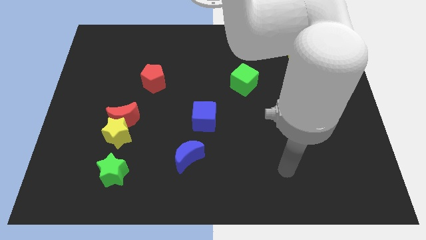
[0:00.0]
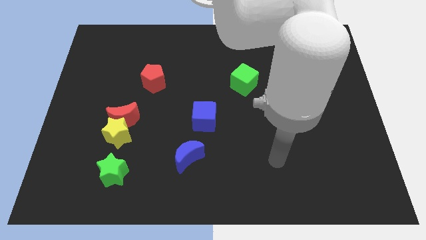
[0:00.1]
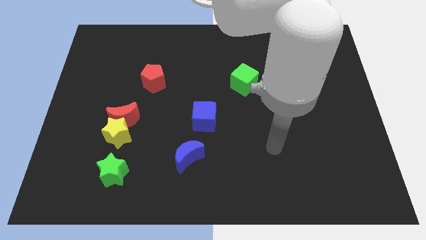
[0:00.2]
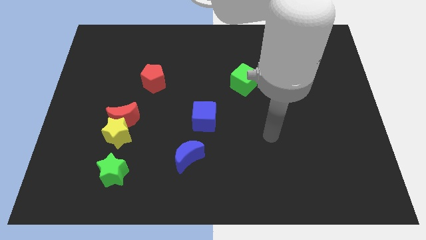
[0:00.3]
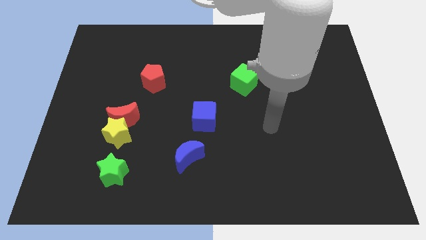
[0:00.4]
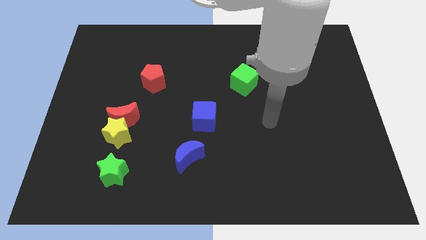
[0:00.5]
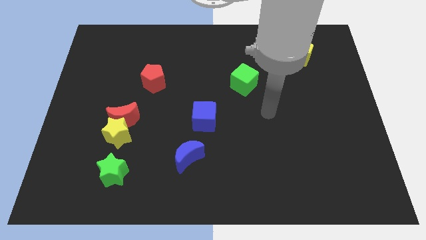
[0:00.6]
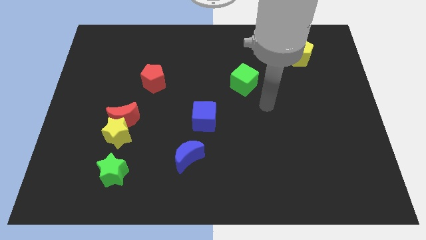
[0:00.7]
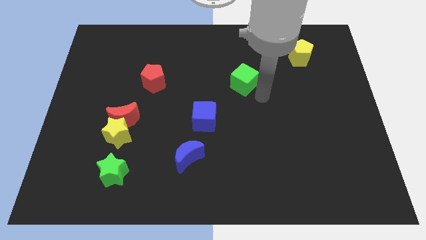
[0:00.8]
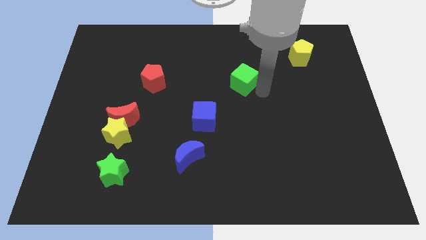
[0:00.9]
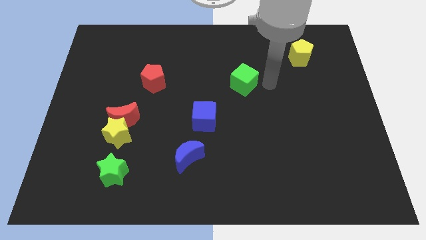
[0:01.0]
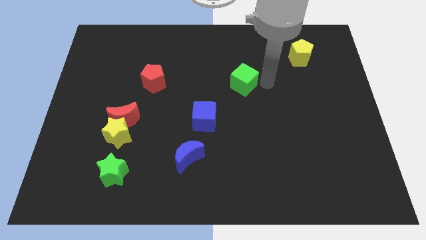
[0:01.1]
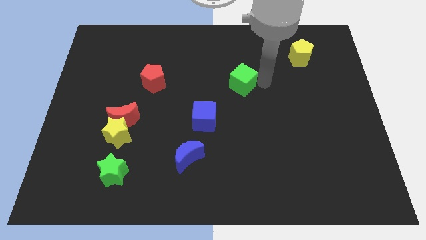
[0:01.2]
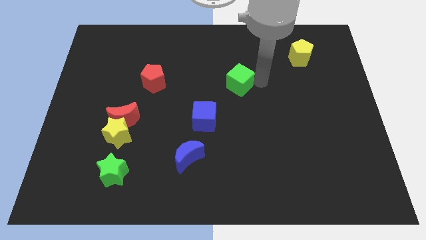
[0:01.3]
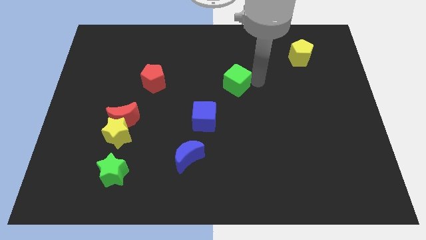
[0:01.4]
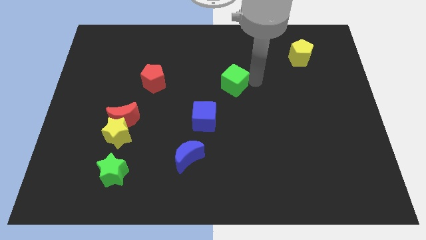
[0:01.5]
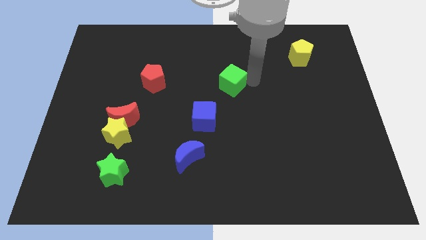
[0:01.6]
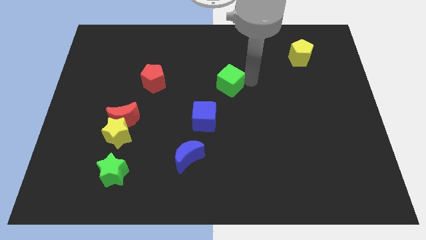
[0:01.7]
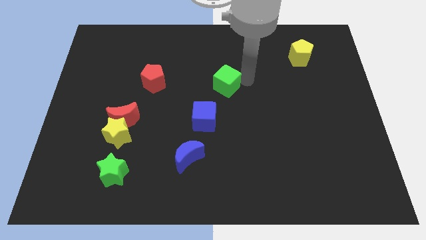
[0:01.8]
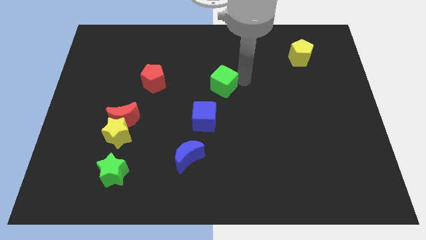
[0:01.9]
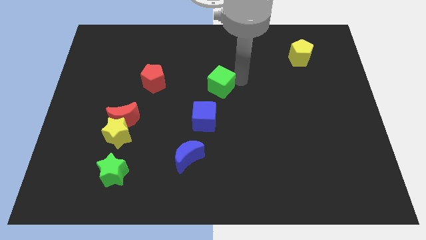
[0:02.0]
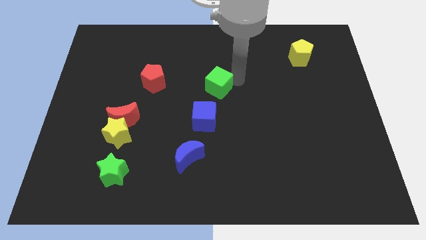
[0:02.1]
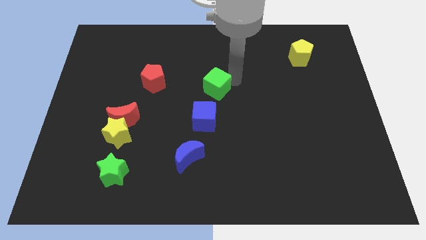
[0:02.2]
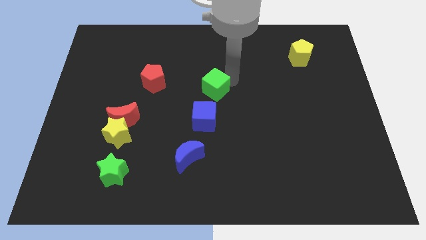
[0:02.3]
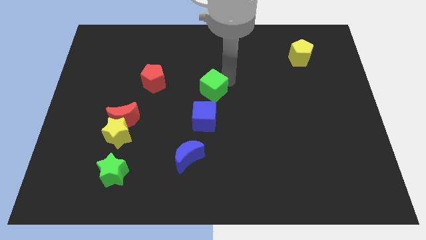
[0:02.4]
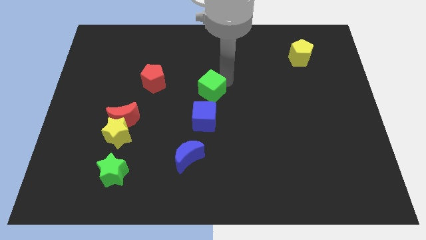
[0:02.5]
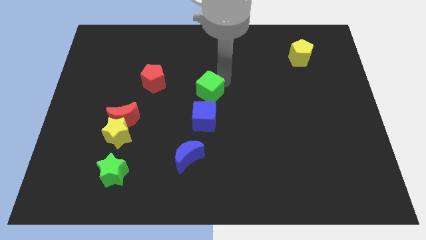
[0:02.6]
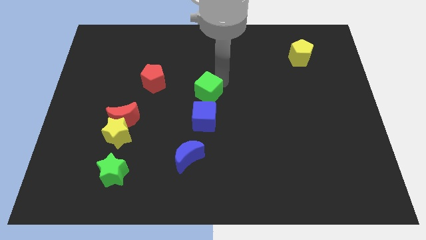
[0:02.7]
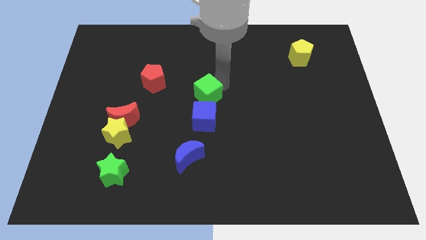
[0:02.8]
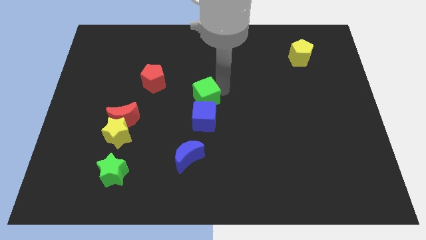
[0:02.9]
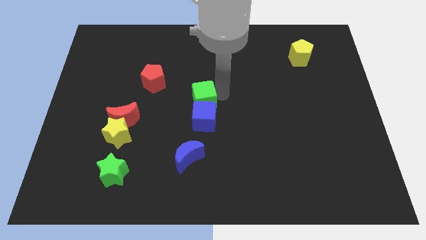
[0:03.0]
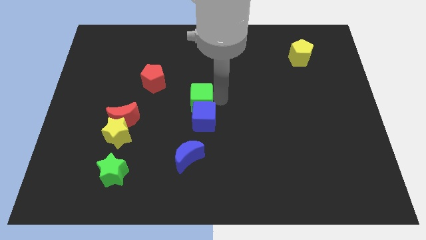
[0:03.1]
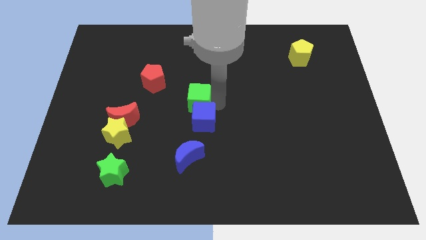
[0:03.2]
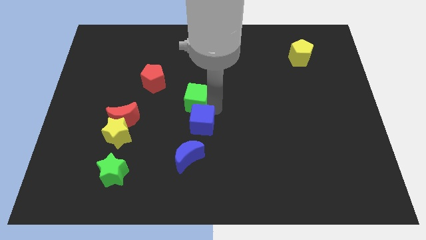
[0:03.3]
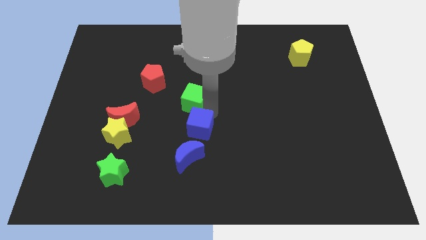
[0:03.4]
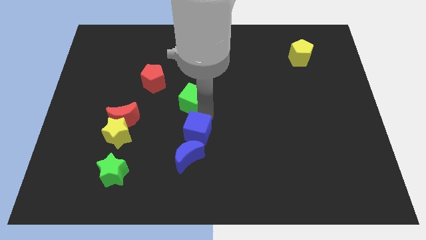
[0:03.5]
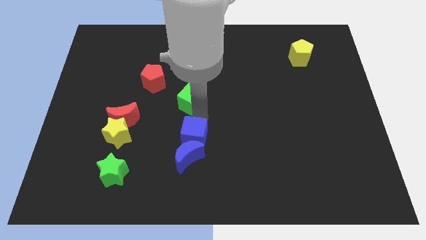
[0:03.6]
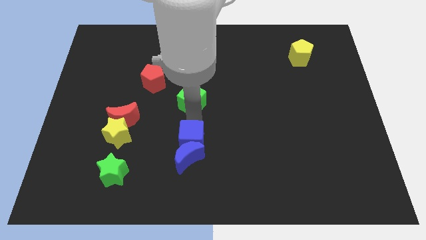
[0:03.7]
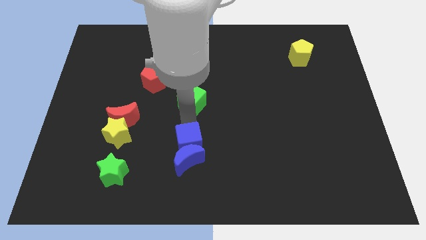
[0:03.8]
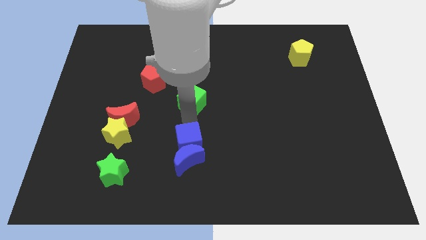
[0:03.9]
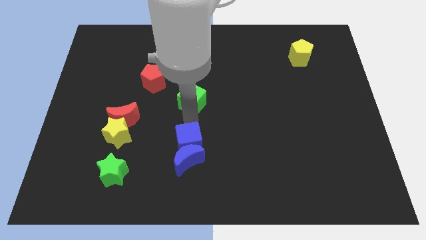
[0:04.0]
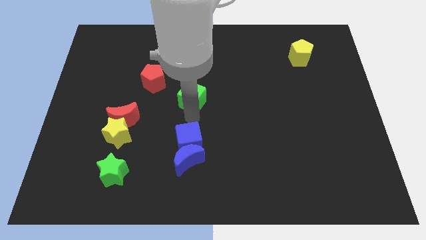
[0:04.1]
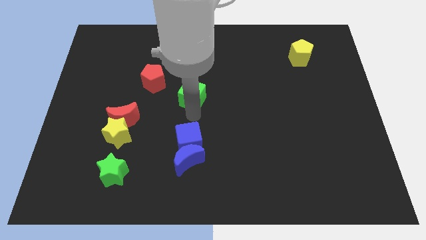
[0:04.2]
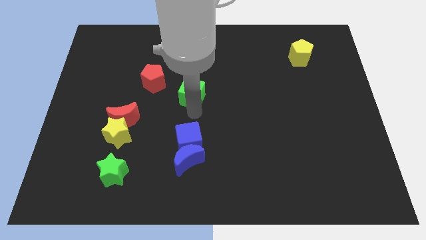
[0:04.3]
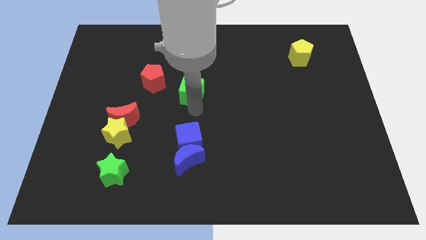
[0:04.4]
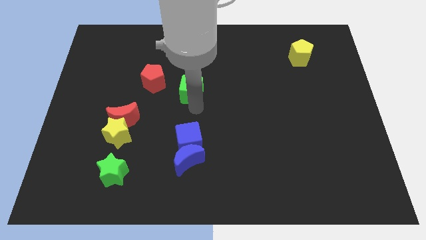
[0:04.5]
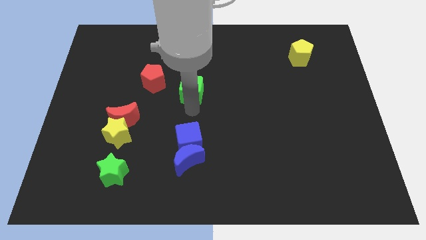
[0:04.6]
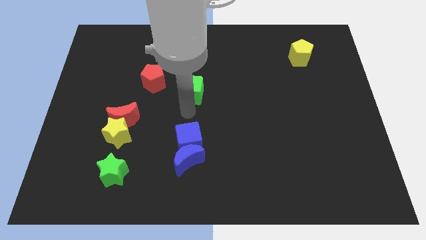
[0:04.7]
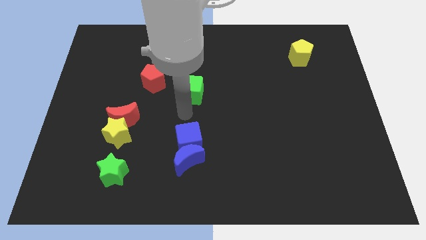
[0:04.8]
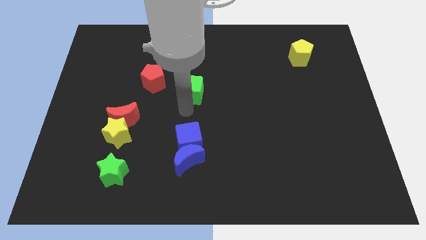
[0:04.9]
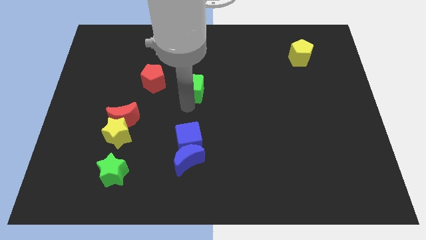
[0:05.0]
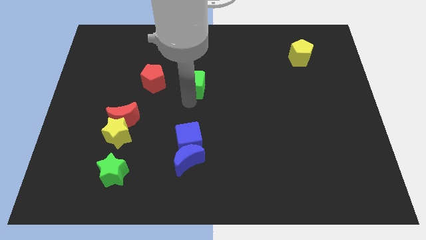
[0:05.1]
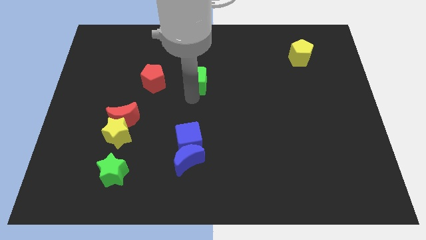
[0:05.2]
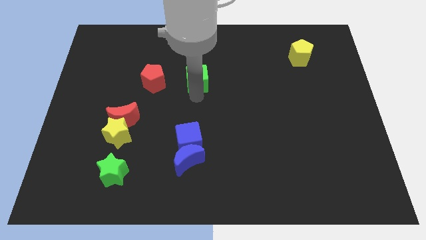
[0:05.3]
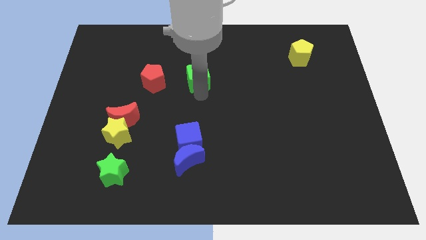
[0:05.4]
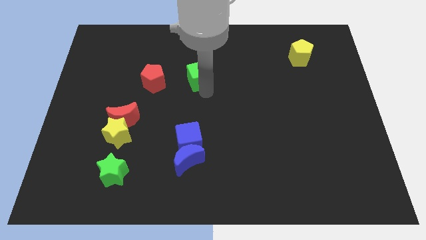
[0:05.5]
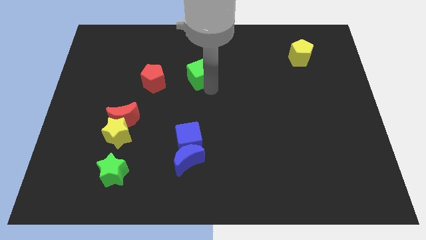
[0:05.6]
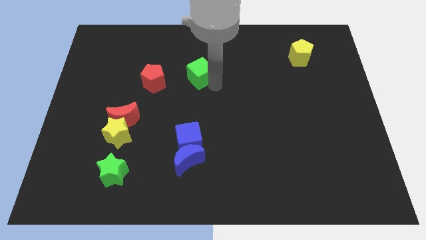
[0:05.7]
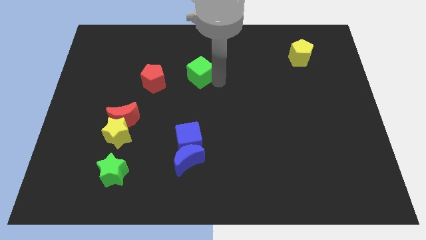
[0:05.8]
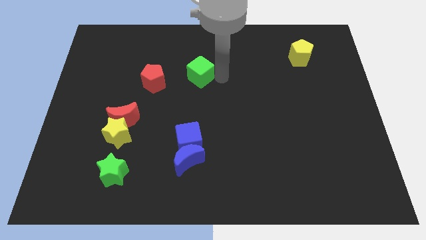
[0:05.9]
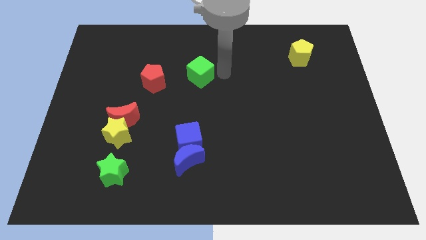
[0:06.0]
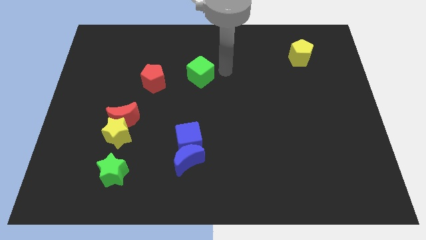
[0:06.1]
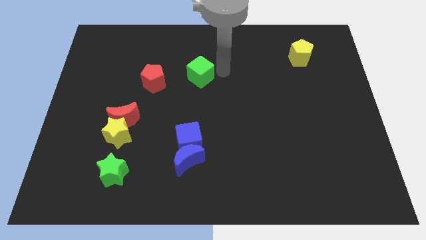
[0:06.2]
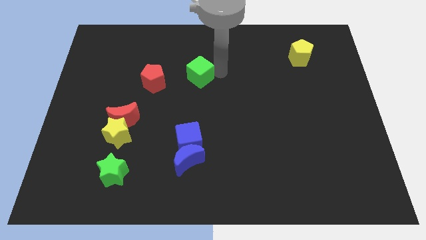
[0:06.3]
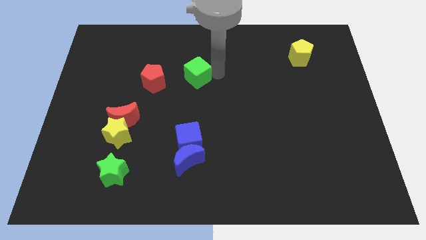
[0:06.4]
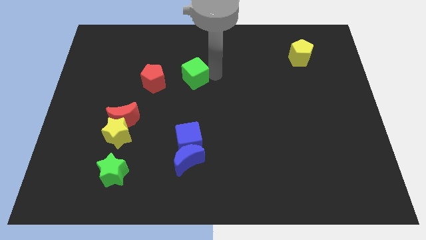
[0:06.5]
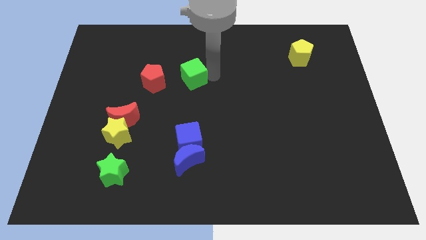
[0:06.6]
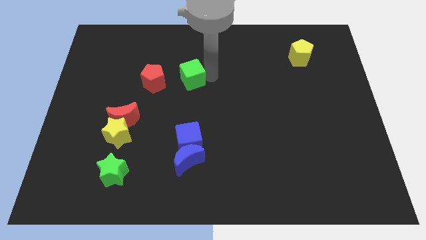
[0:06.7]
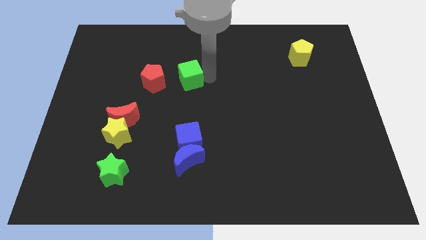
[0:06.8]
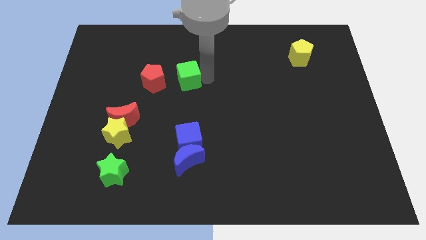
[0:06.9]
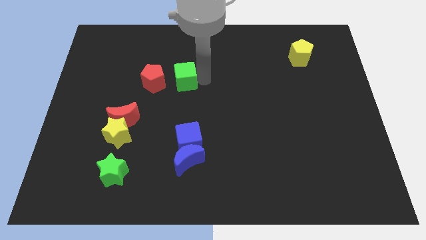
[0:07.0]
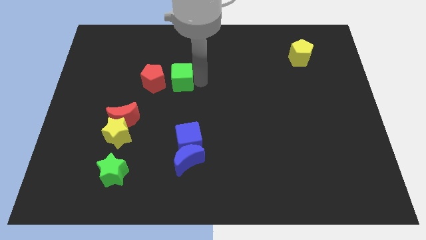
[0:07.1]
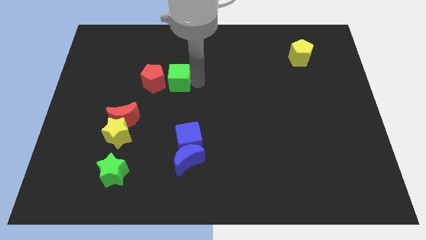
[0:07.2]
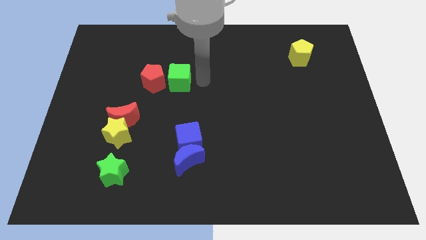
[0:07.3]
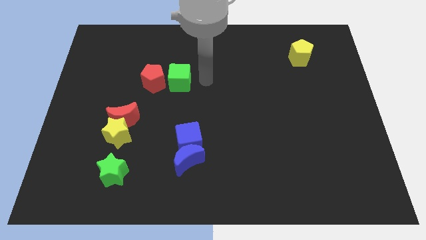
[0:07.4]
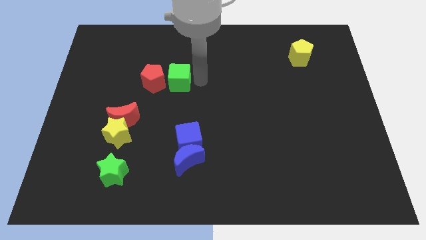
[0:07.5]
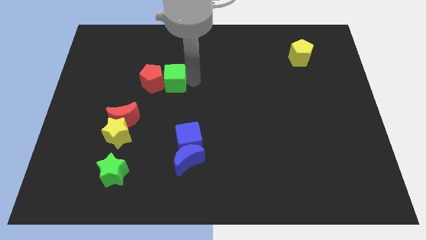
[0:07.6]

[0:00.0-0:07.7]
slide the green cube next to the red pentagon
